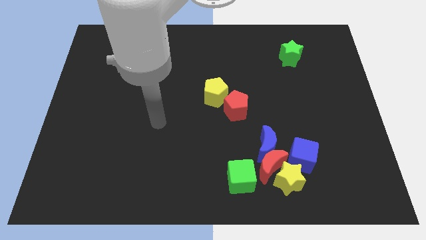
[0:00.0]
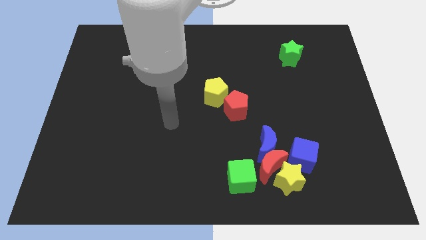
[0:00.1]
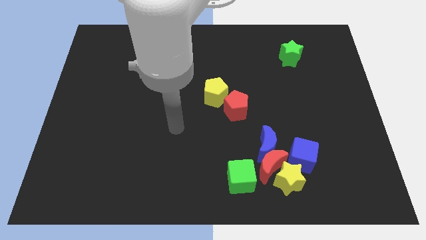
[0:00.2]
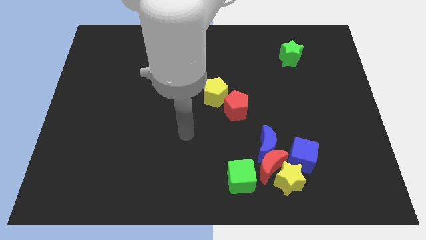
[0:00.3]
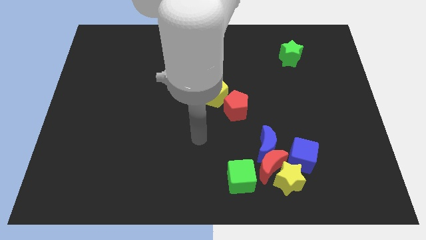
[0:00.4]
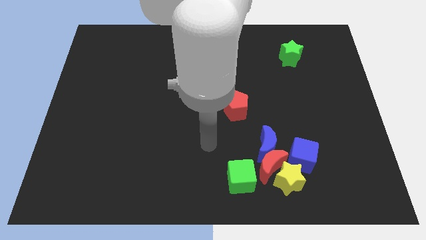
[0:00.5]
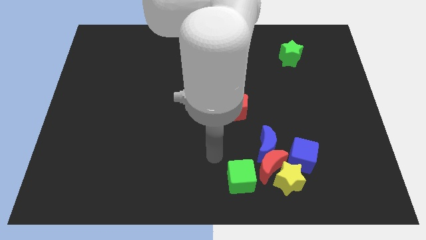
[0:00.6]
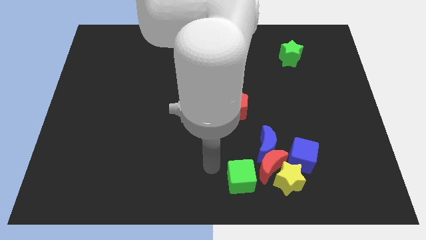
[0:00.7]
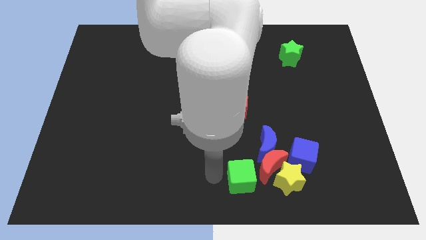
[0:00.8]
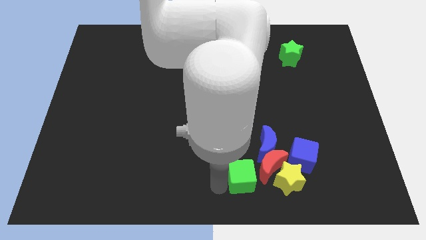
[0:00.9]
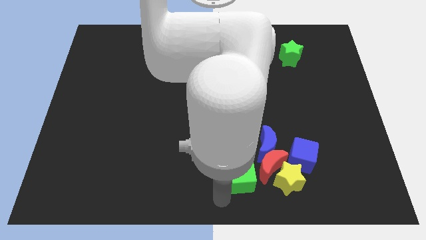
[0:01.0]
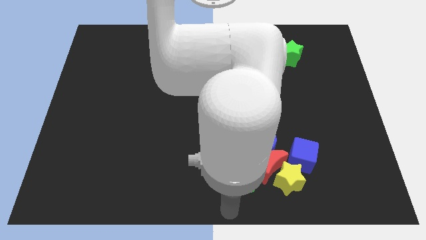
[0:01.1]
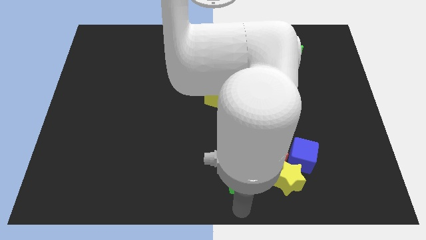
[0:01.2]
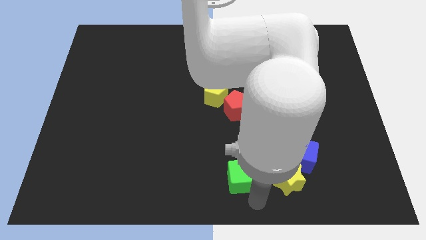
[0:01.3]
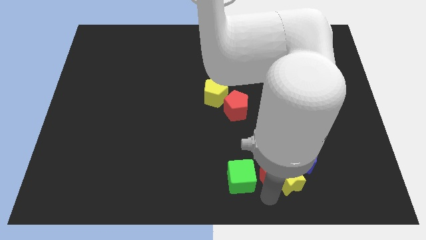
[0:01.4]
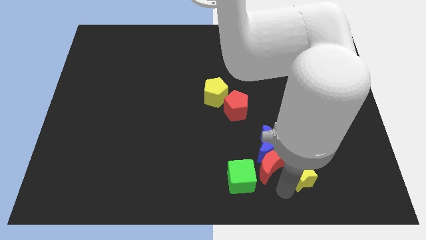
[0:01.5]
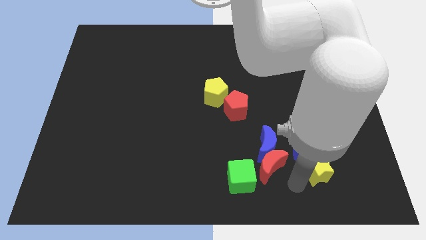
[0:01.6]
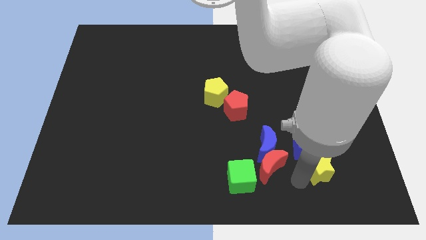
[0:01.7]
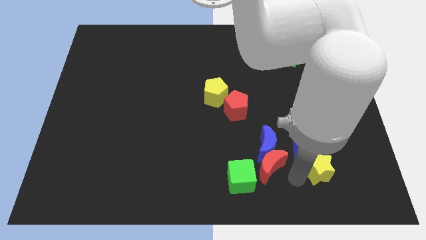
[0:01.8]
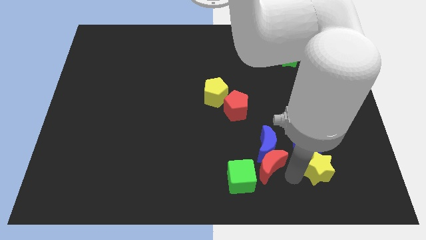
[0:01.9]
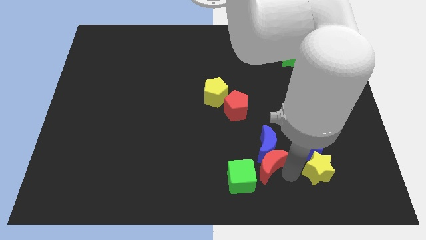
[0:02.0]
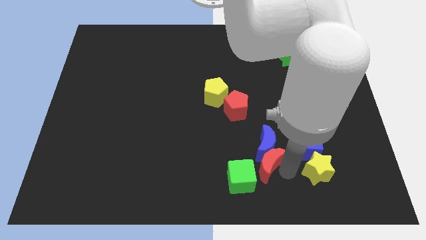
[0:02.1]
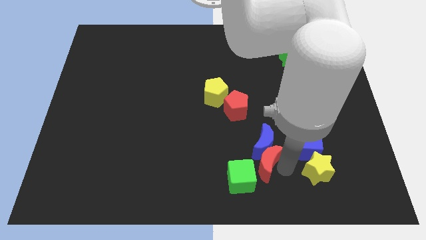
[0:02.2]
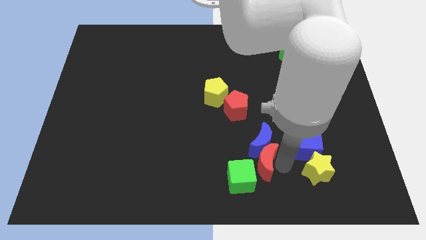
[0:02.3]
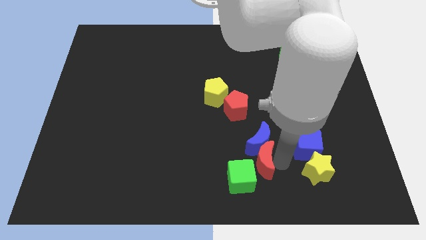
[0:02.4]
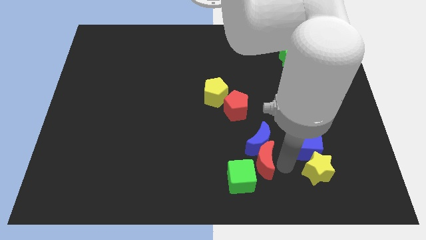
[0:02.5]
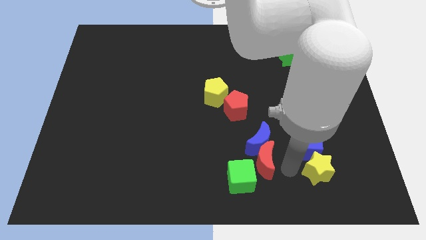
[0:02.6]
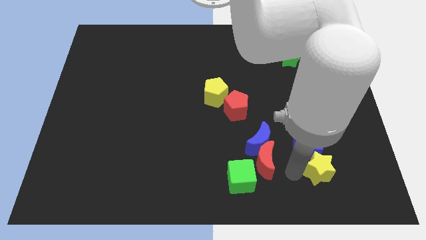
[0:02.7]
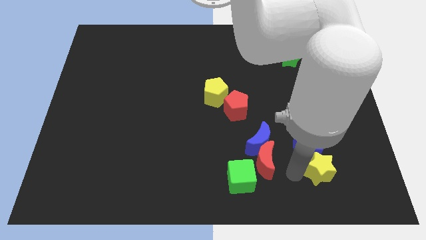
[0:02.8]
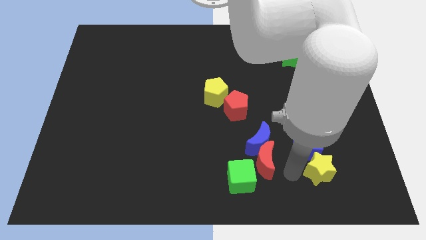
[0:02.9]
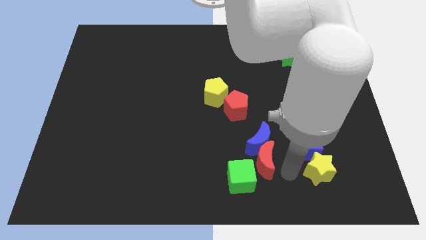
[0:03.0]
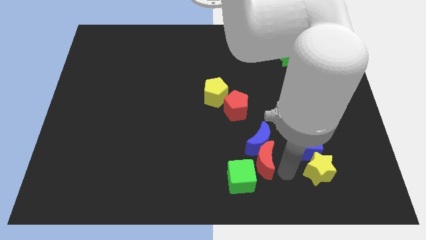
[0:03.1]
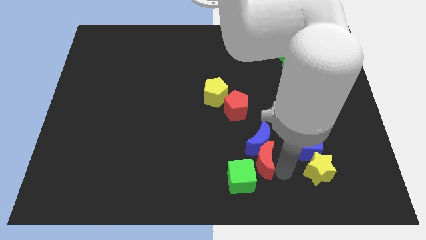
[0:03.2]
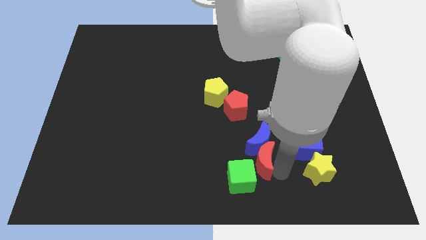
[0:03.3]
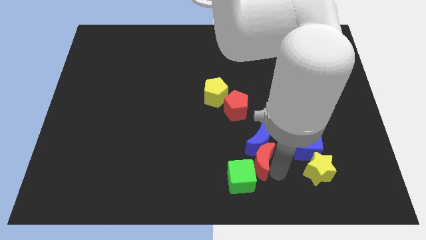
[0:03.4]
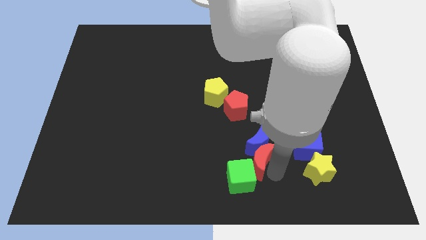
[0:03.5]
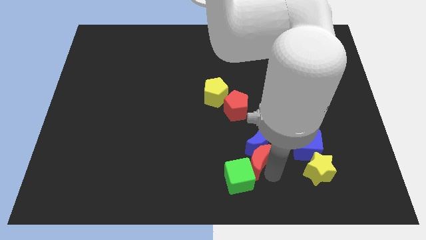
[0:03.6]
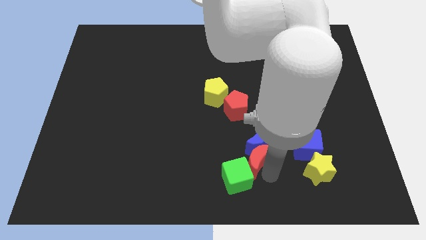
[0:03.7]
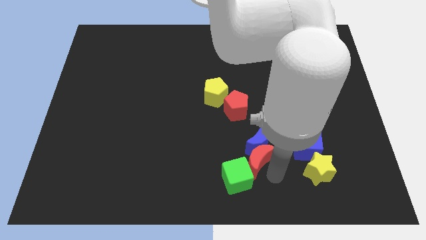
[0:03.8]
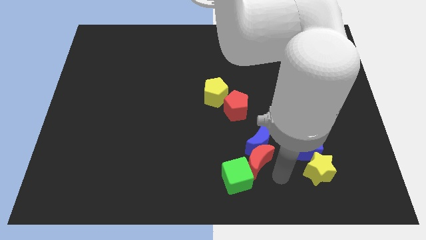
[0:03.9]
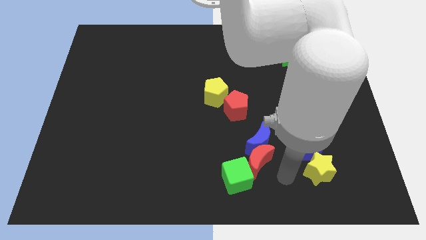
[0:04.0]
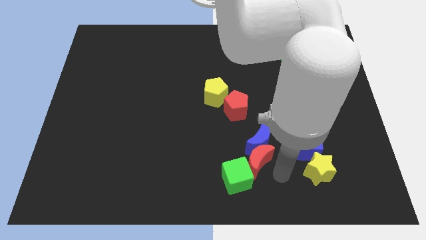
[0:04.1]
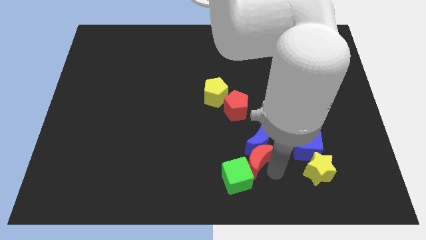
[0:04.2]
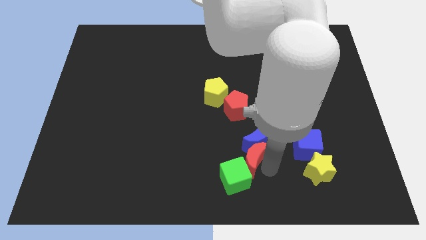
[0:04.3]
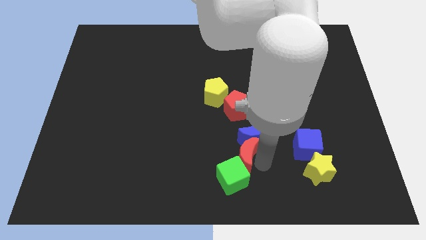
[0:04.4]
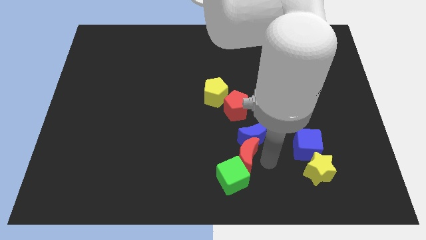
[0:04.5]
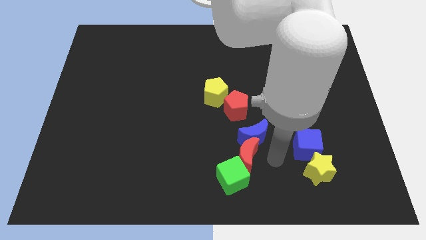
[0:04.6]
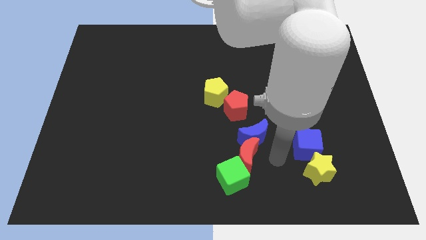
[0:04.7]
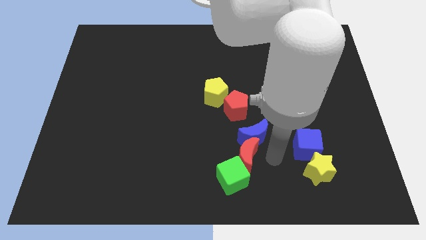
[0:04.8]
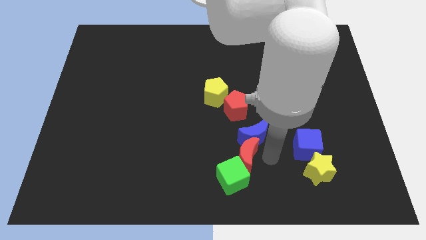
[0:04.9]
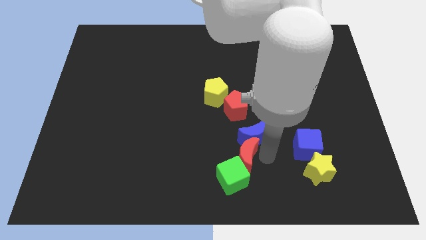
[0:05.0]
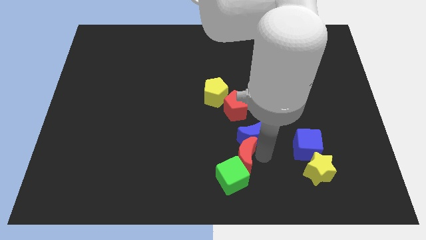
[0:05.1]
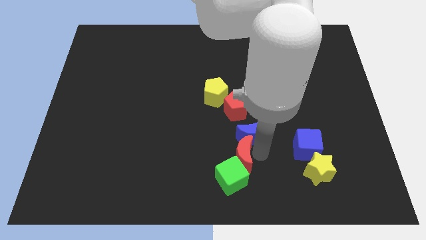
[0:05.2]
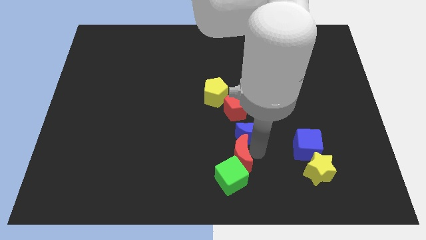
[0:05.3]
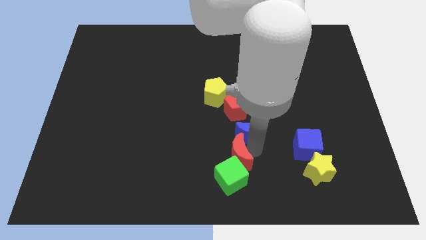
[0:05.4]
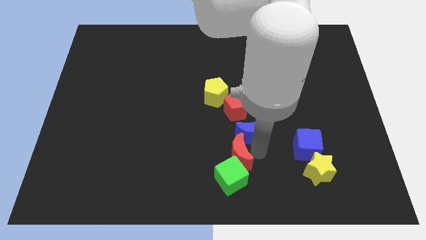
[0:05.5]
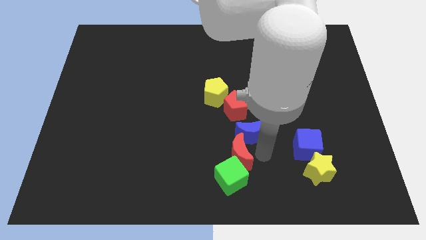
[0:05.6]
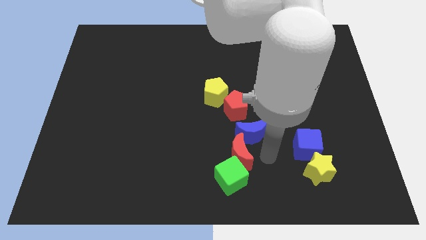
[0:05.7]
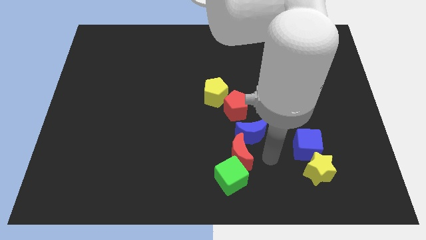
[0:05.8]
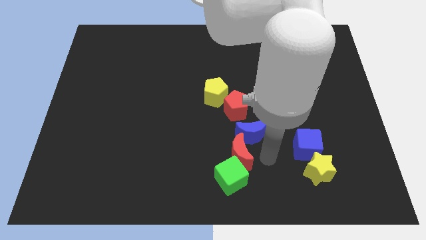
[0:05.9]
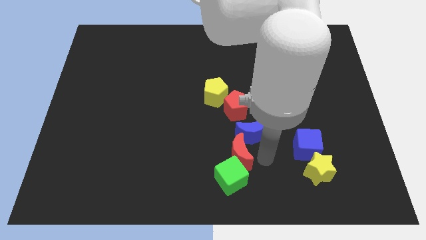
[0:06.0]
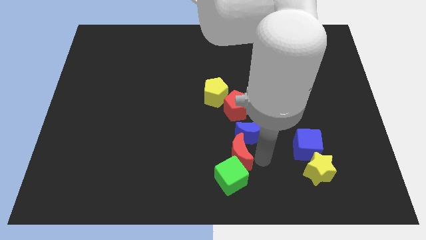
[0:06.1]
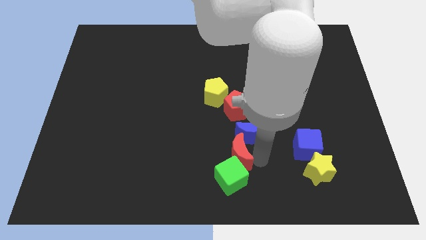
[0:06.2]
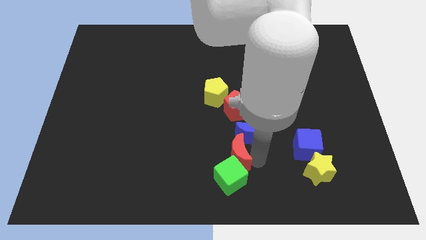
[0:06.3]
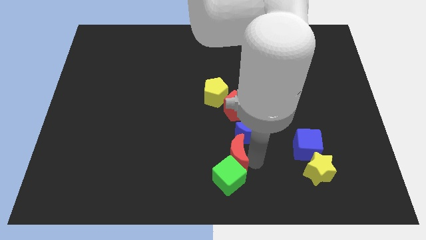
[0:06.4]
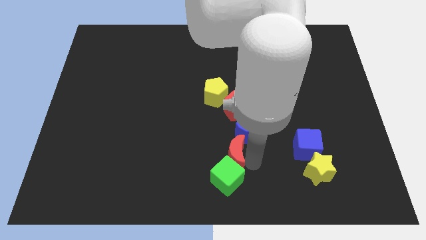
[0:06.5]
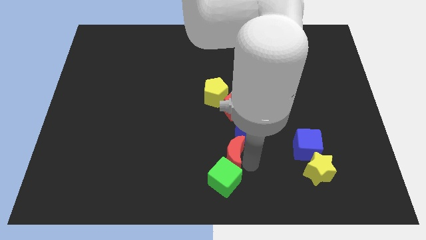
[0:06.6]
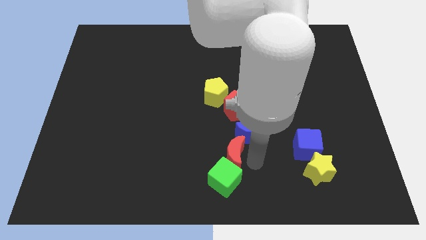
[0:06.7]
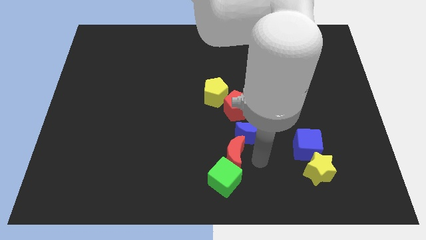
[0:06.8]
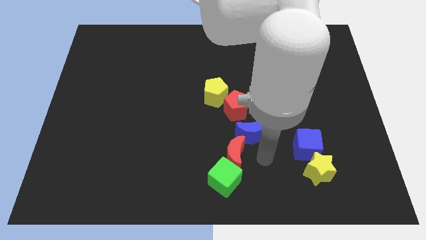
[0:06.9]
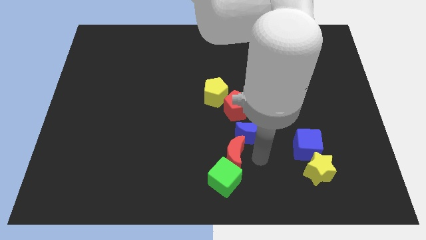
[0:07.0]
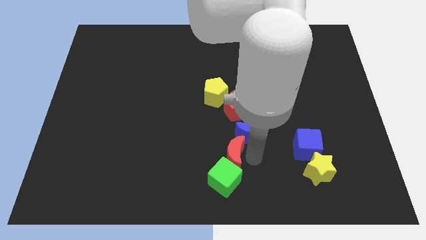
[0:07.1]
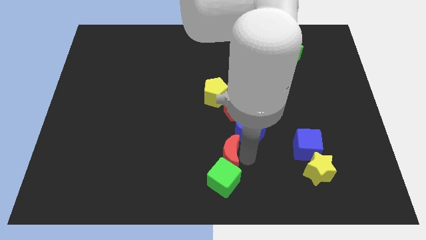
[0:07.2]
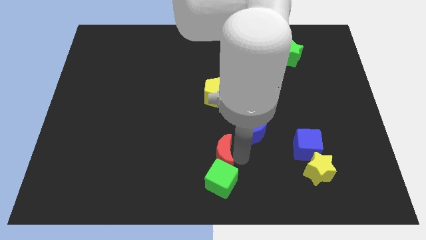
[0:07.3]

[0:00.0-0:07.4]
move the red moon away from the group of blocks

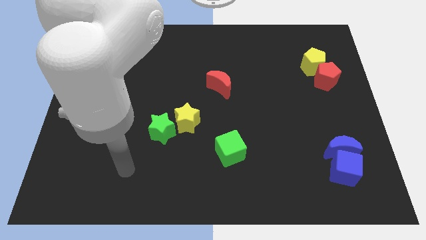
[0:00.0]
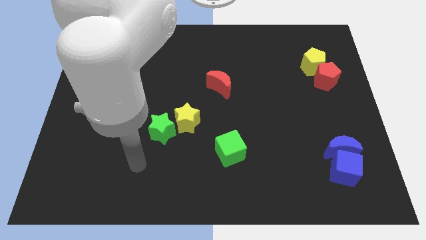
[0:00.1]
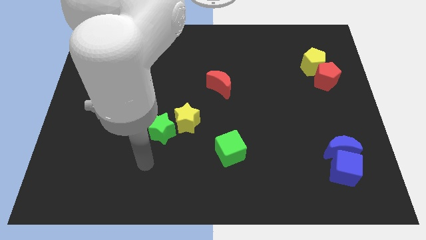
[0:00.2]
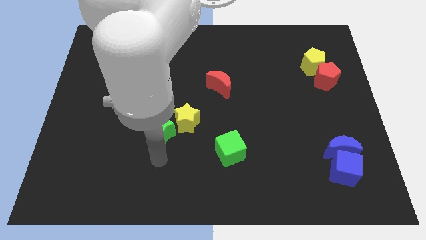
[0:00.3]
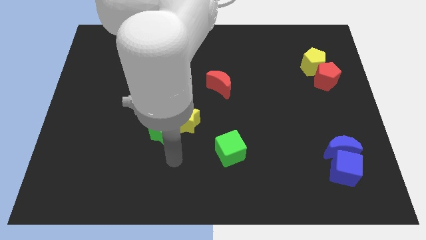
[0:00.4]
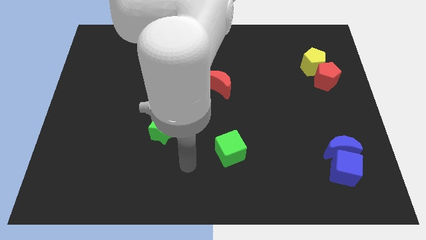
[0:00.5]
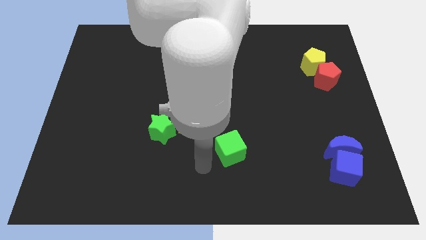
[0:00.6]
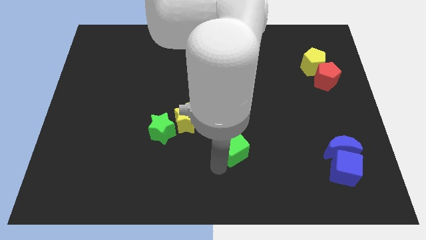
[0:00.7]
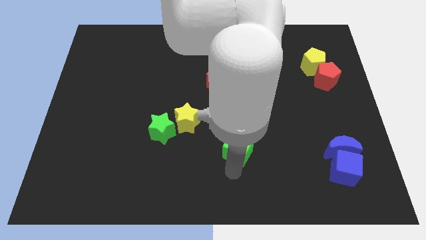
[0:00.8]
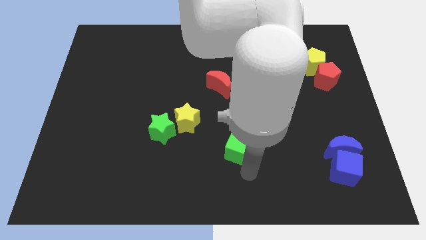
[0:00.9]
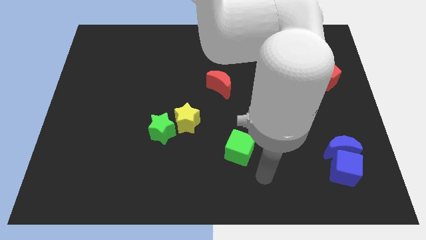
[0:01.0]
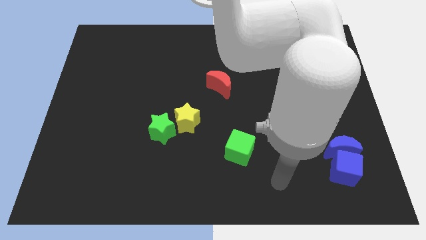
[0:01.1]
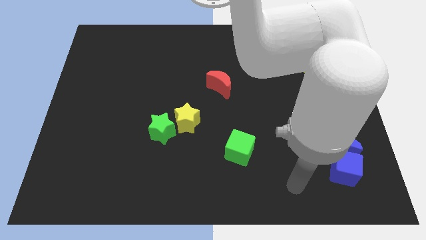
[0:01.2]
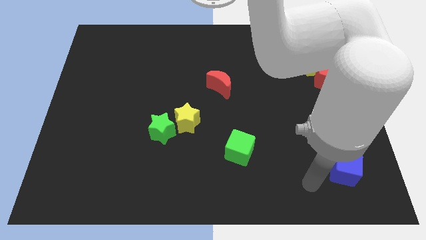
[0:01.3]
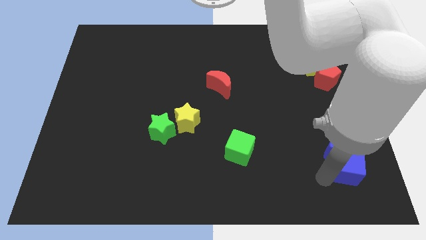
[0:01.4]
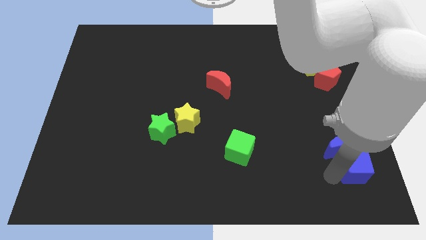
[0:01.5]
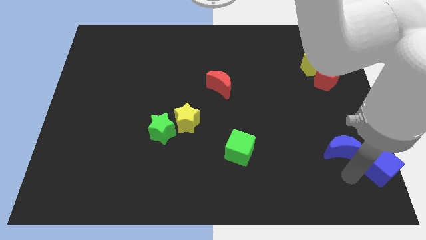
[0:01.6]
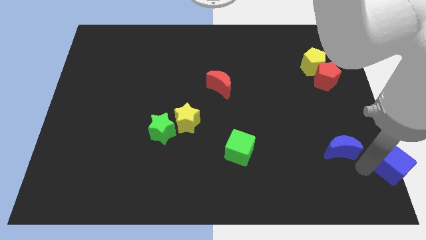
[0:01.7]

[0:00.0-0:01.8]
separate the blue moon from the blue cube

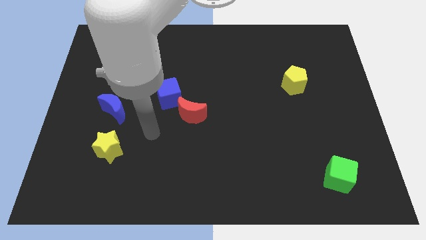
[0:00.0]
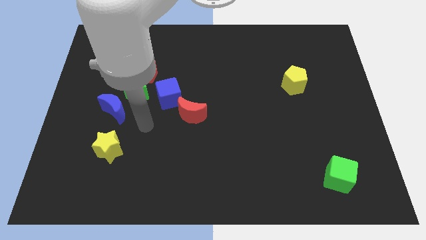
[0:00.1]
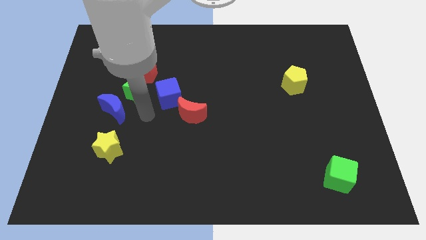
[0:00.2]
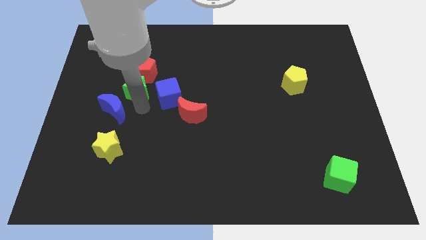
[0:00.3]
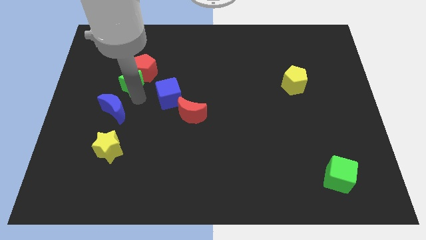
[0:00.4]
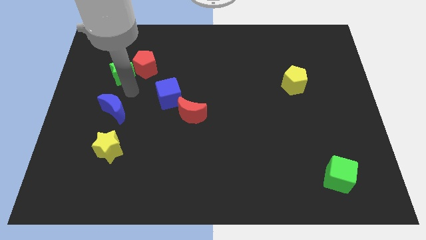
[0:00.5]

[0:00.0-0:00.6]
pull the blue moon apart from the green star
